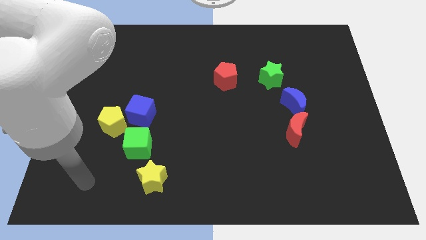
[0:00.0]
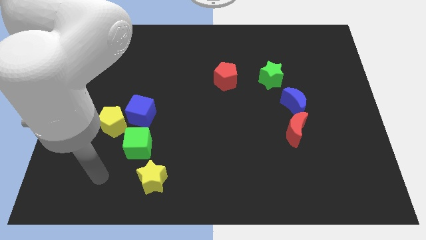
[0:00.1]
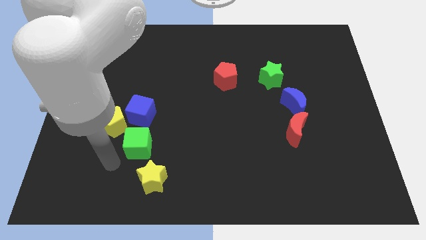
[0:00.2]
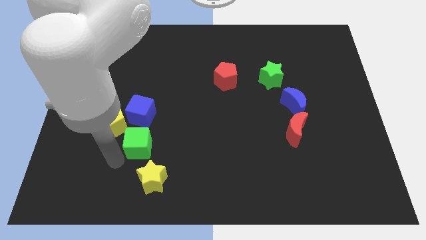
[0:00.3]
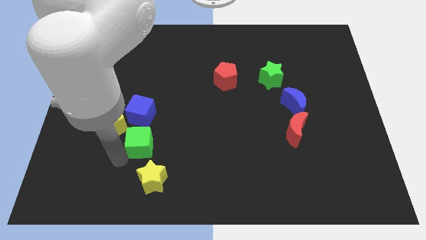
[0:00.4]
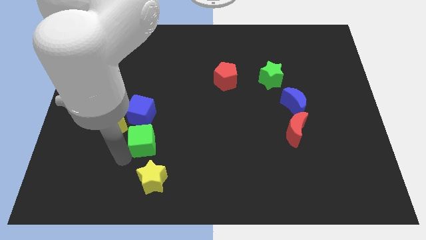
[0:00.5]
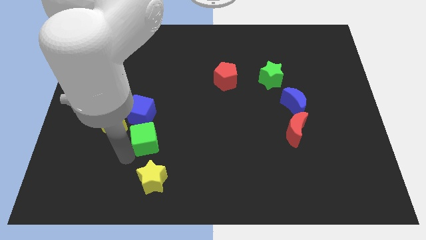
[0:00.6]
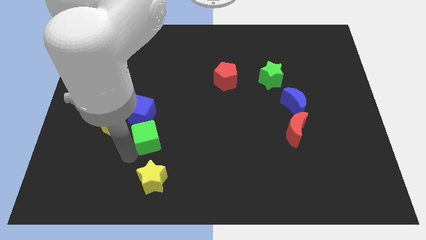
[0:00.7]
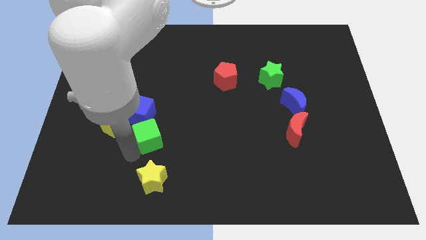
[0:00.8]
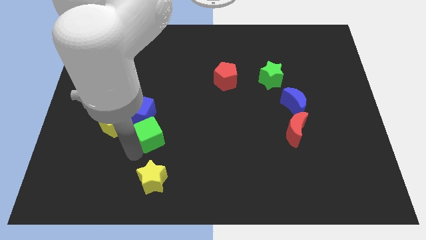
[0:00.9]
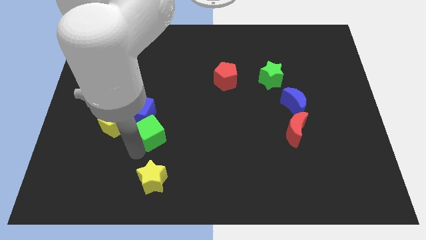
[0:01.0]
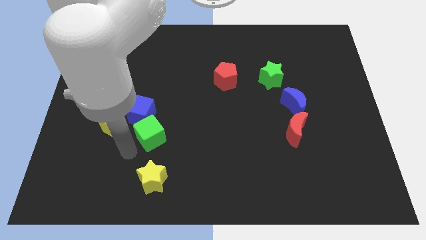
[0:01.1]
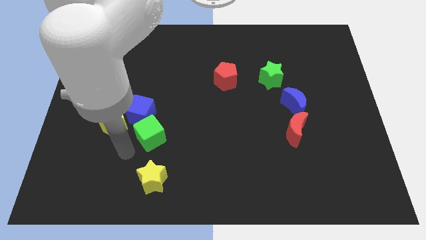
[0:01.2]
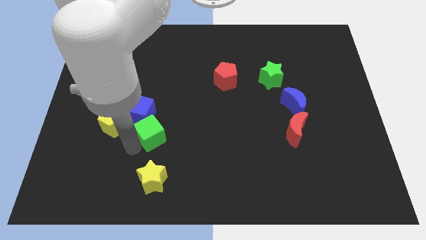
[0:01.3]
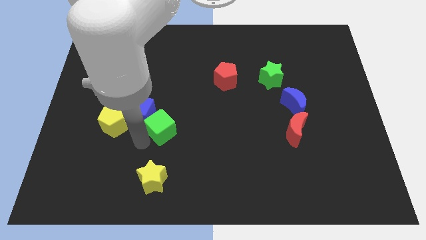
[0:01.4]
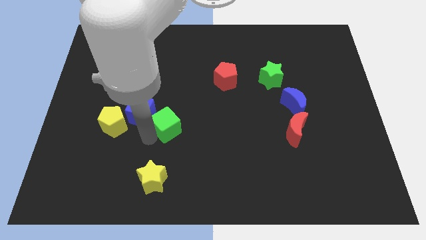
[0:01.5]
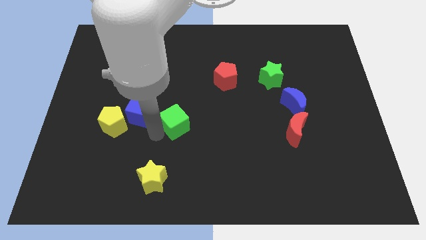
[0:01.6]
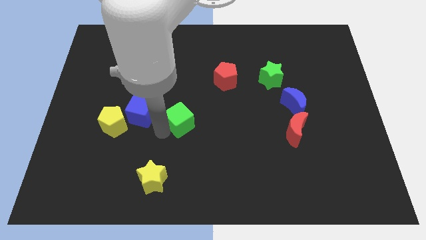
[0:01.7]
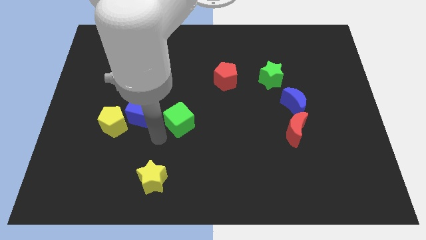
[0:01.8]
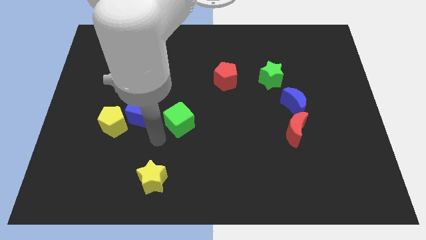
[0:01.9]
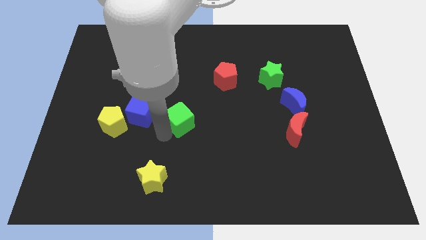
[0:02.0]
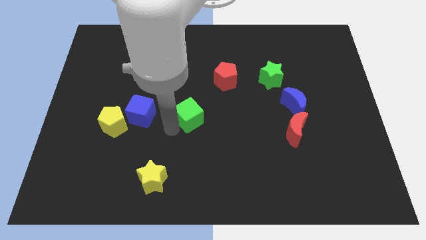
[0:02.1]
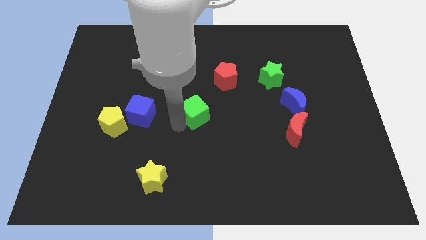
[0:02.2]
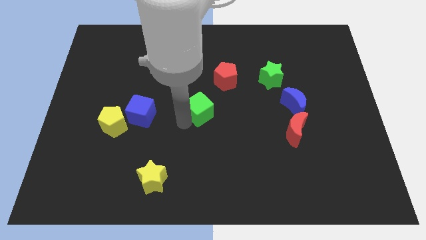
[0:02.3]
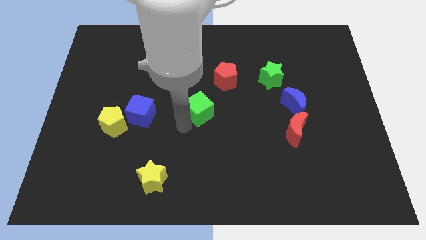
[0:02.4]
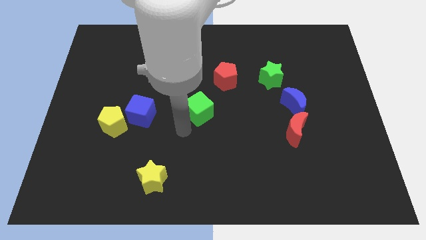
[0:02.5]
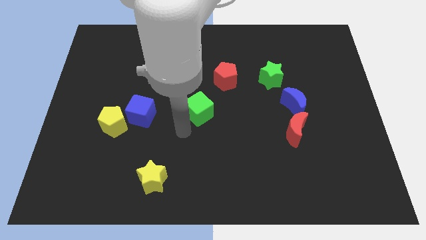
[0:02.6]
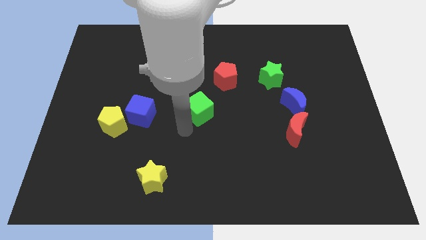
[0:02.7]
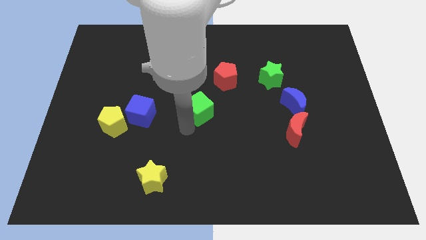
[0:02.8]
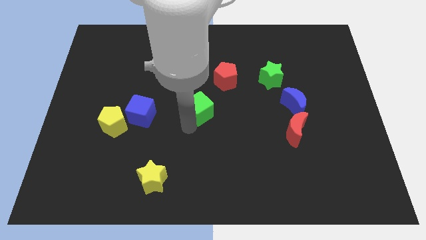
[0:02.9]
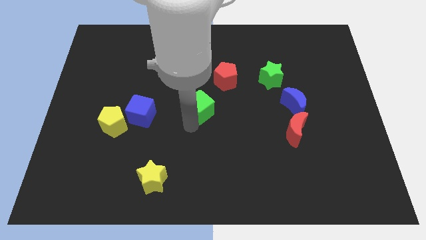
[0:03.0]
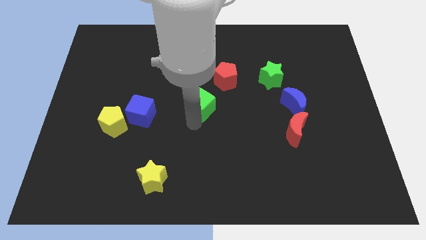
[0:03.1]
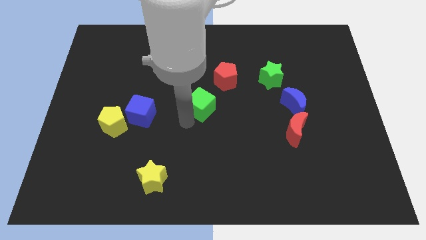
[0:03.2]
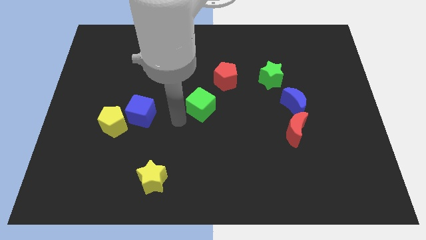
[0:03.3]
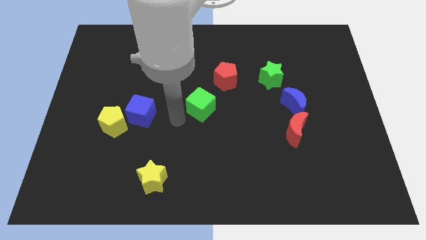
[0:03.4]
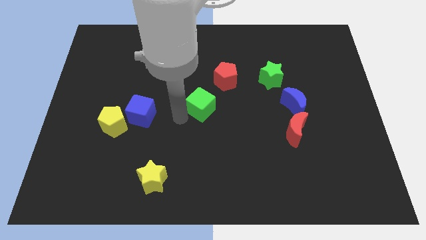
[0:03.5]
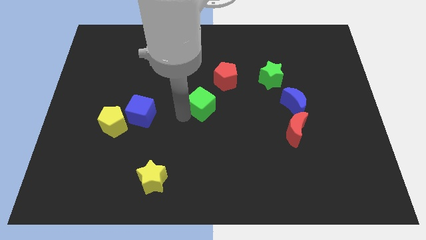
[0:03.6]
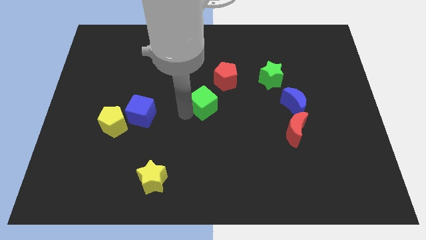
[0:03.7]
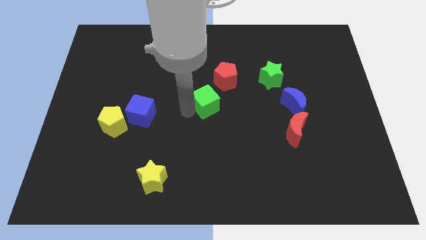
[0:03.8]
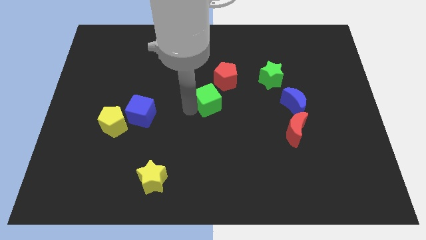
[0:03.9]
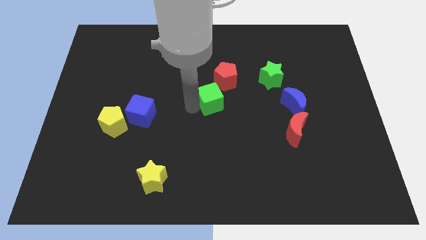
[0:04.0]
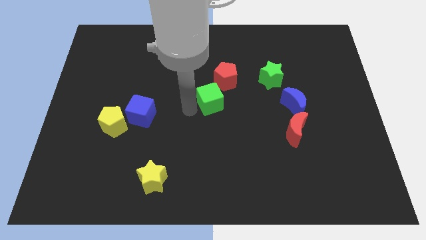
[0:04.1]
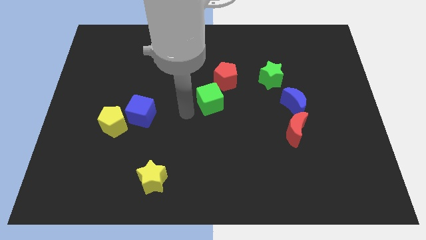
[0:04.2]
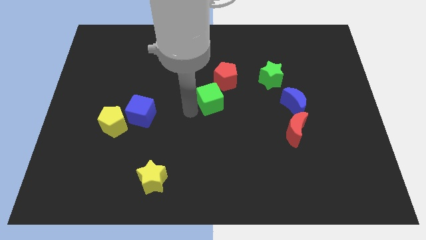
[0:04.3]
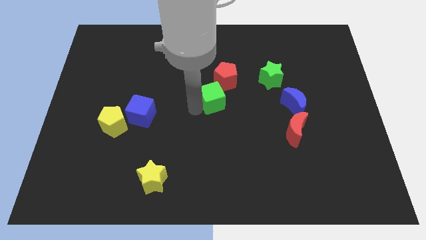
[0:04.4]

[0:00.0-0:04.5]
push the green cube diagonally upwards and right

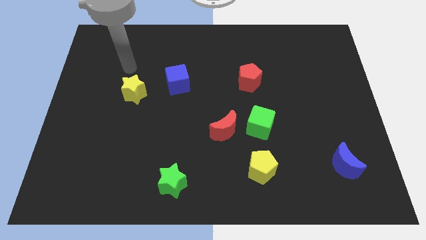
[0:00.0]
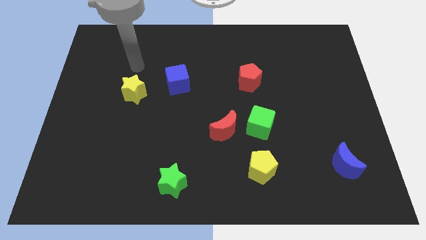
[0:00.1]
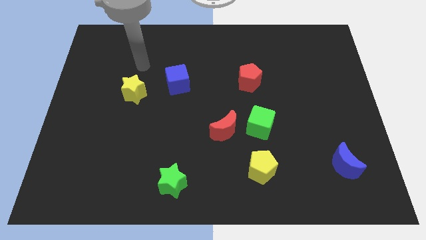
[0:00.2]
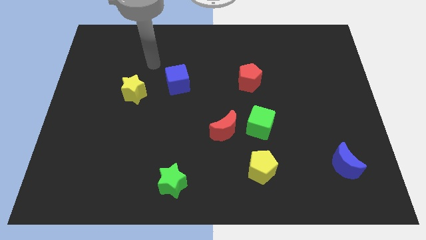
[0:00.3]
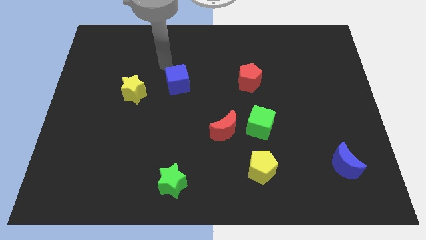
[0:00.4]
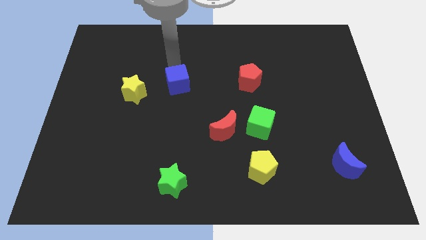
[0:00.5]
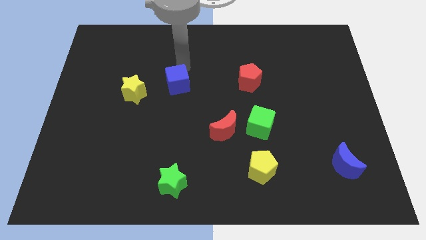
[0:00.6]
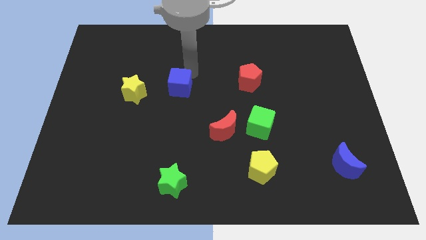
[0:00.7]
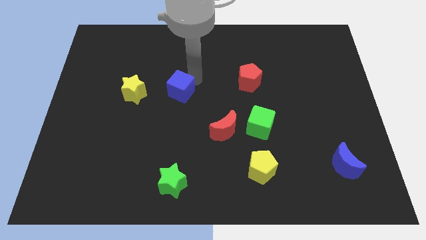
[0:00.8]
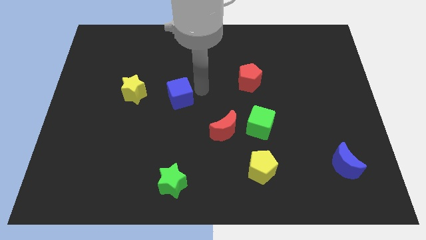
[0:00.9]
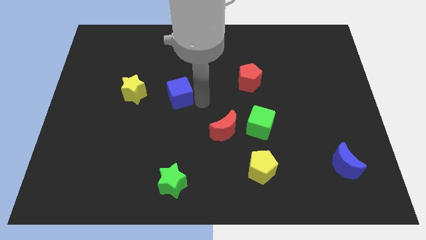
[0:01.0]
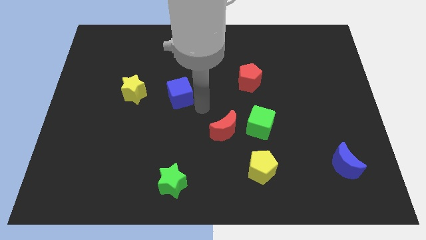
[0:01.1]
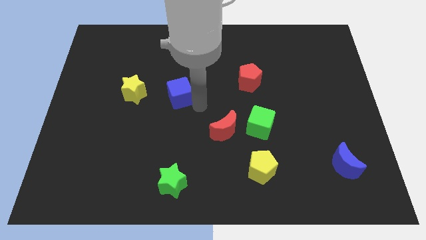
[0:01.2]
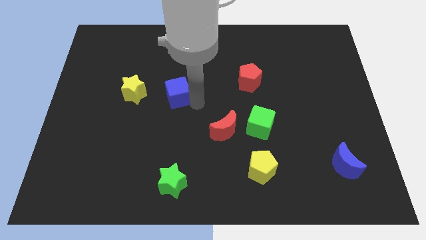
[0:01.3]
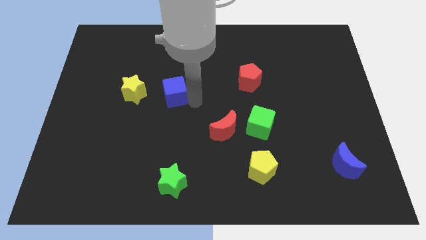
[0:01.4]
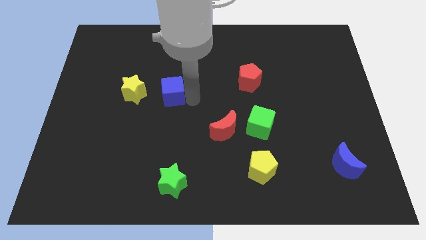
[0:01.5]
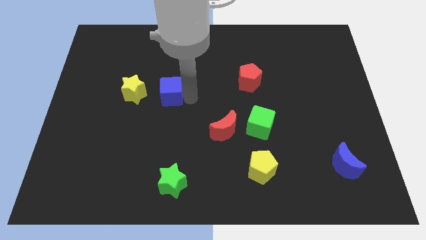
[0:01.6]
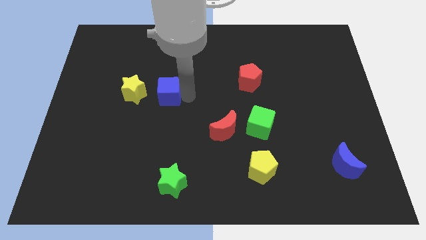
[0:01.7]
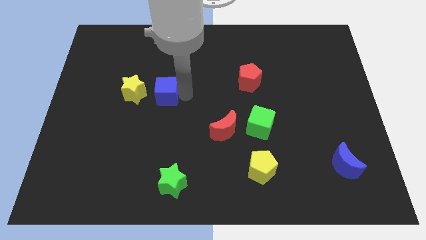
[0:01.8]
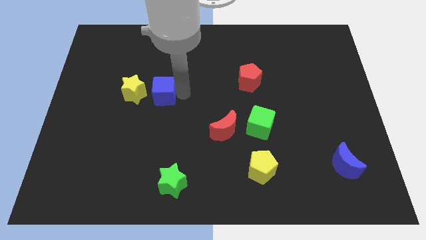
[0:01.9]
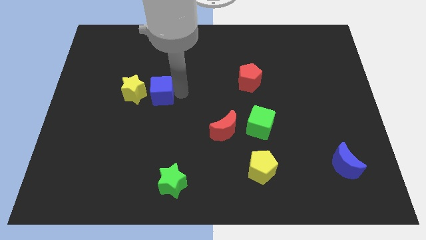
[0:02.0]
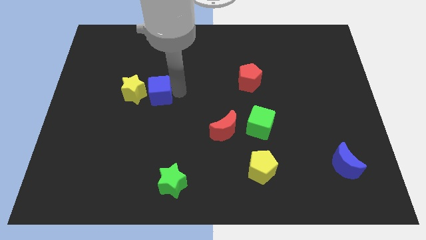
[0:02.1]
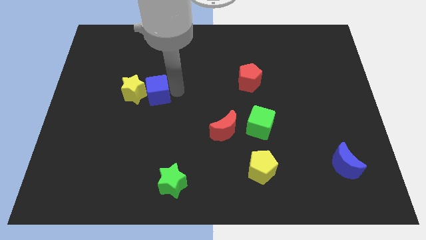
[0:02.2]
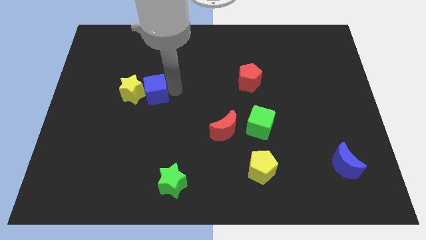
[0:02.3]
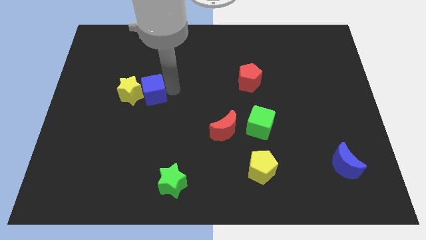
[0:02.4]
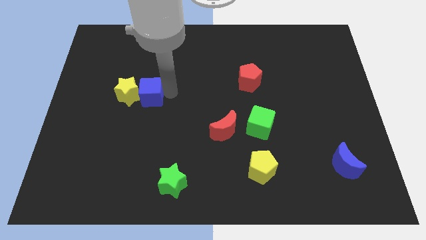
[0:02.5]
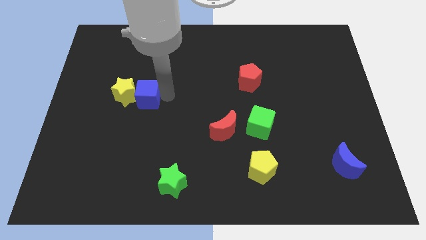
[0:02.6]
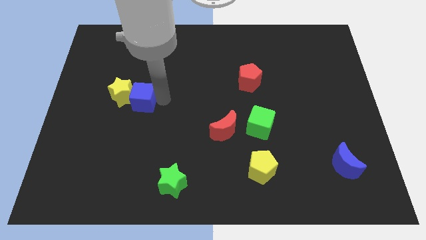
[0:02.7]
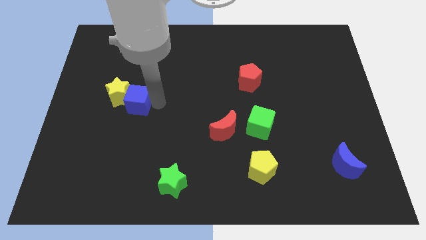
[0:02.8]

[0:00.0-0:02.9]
slightly slide the blue cube to the left

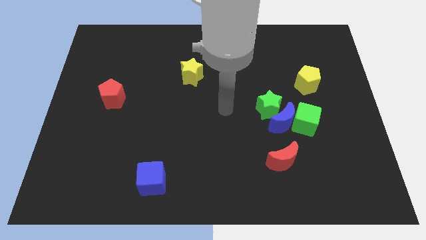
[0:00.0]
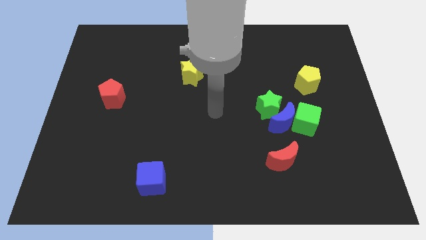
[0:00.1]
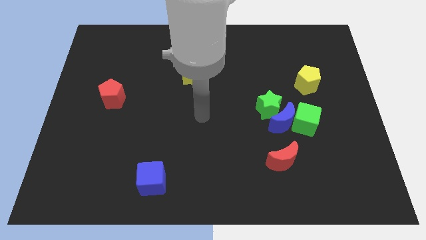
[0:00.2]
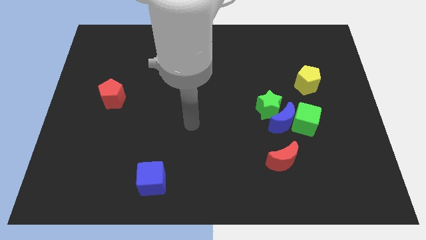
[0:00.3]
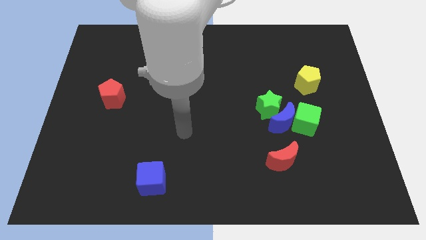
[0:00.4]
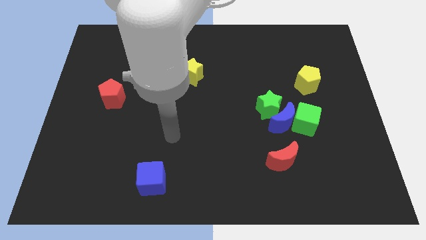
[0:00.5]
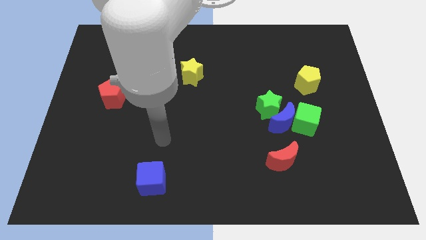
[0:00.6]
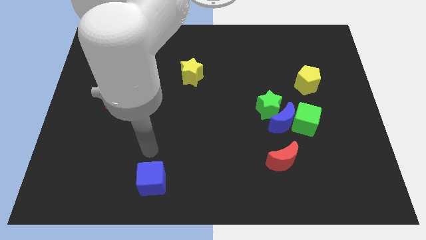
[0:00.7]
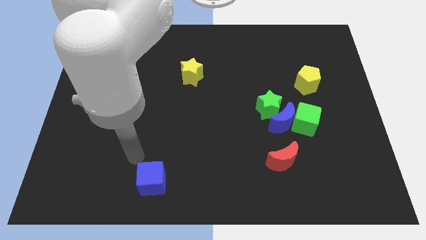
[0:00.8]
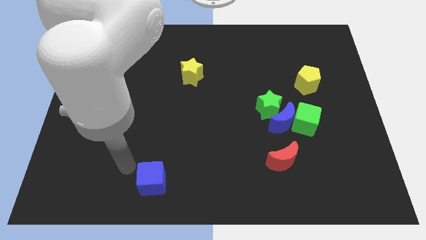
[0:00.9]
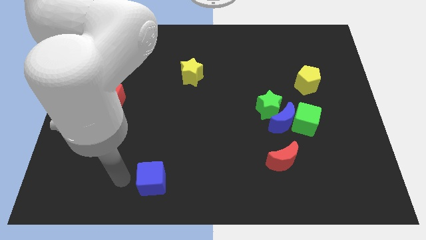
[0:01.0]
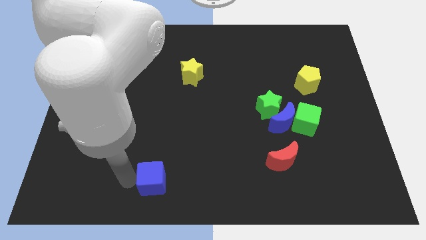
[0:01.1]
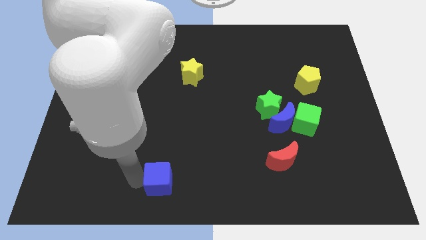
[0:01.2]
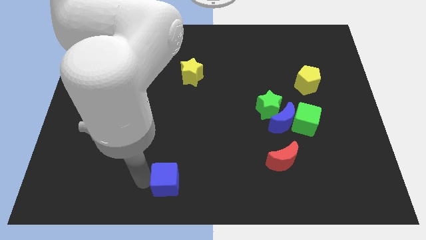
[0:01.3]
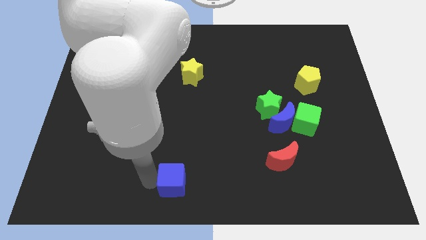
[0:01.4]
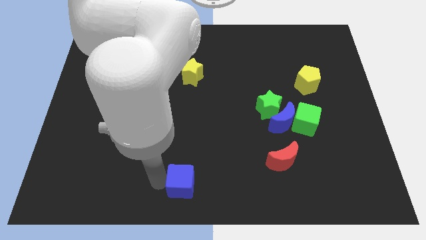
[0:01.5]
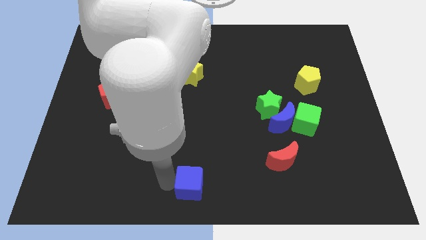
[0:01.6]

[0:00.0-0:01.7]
move the blue cube to the right somewhat
